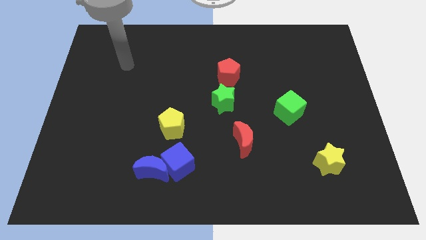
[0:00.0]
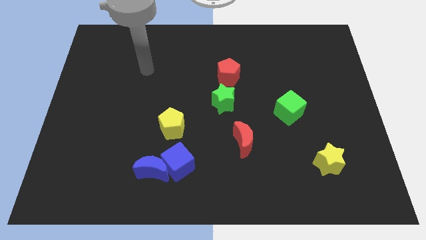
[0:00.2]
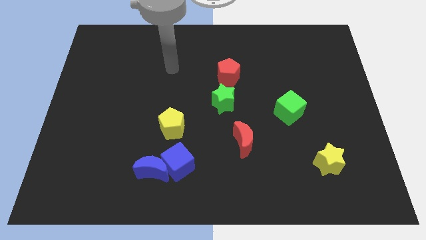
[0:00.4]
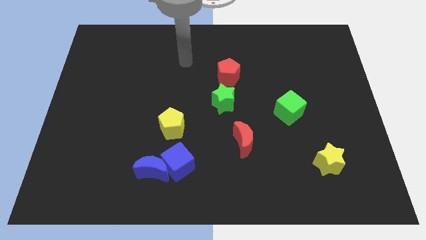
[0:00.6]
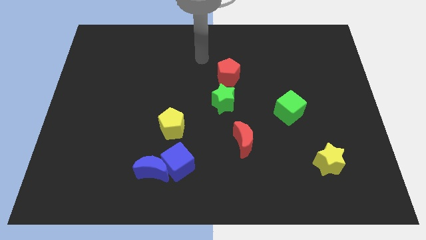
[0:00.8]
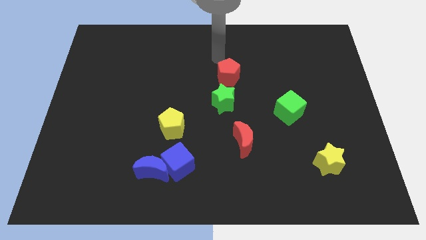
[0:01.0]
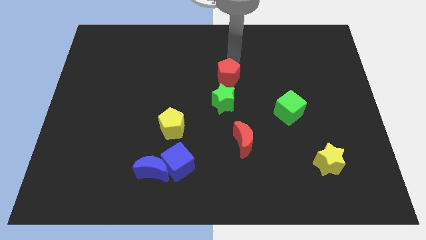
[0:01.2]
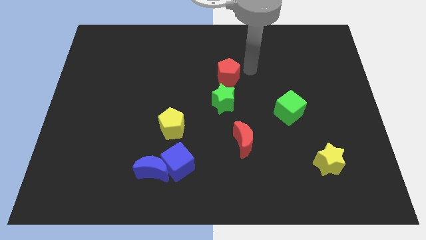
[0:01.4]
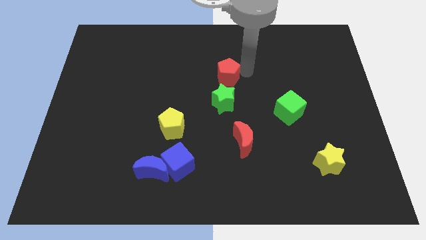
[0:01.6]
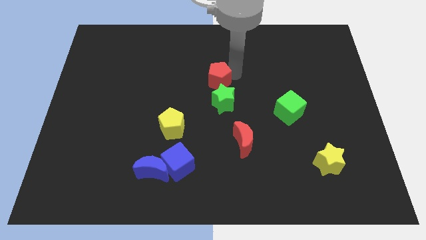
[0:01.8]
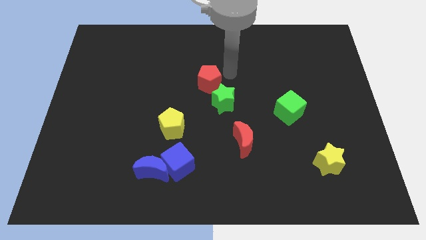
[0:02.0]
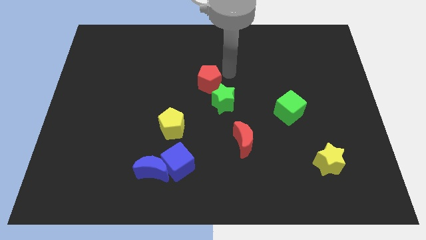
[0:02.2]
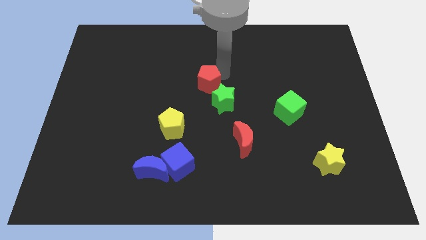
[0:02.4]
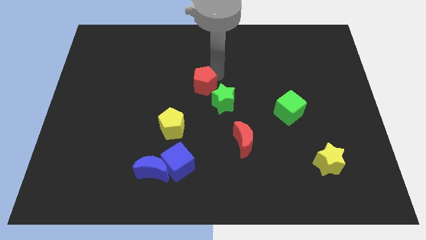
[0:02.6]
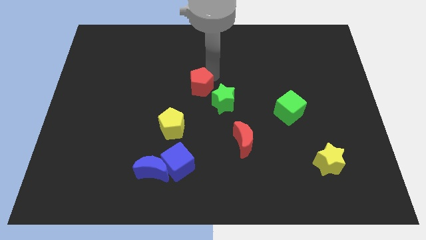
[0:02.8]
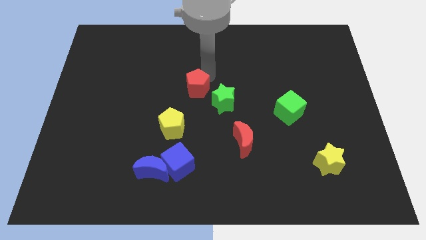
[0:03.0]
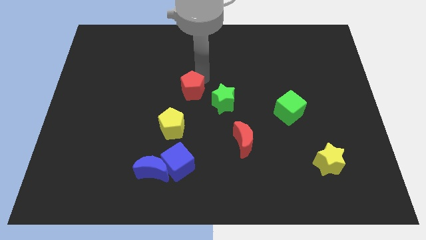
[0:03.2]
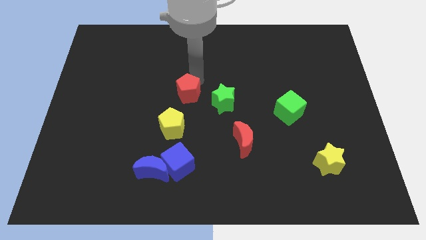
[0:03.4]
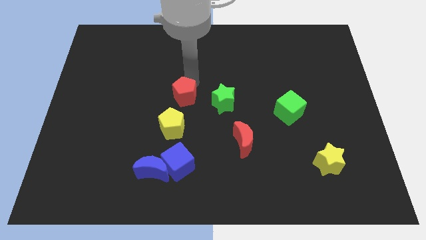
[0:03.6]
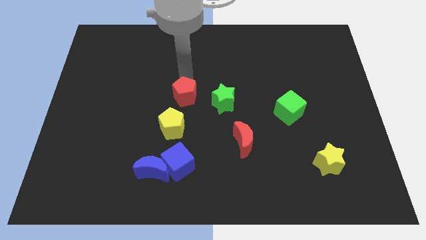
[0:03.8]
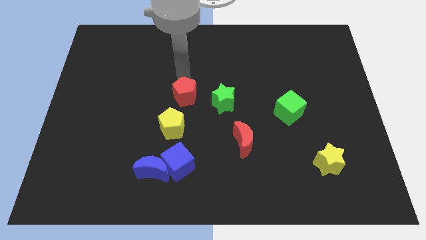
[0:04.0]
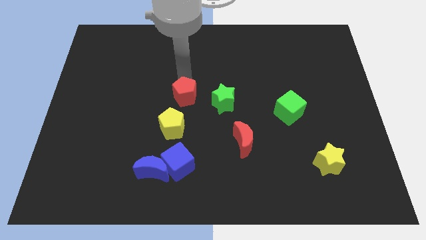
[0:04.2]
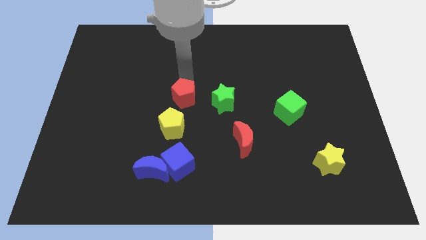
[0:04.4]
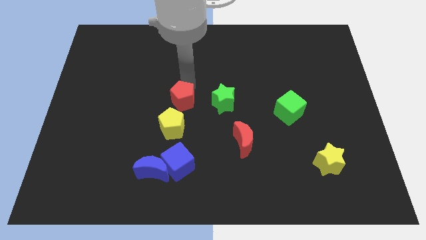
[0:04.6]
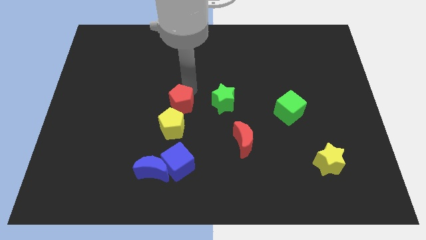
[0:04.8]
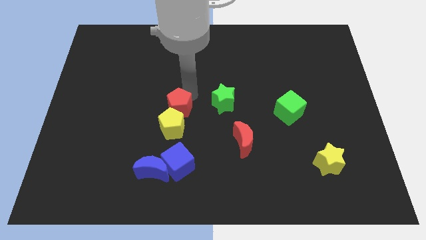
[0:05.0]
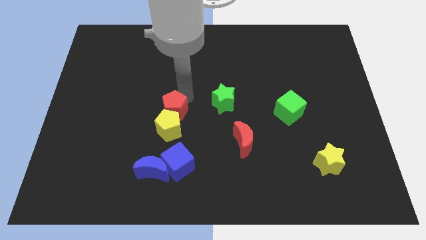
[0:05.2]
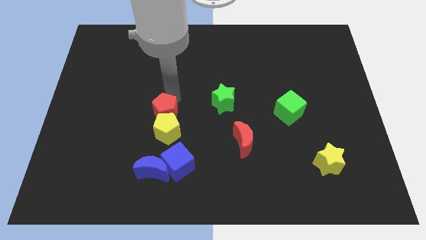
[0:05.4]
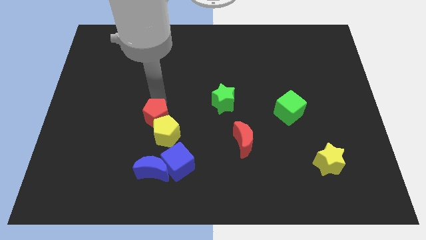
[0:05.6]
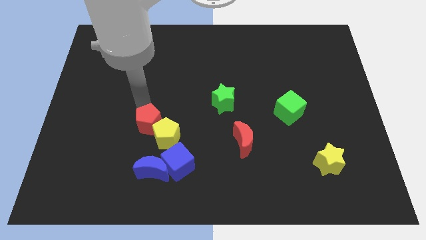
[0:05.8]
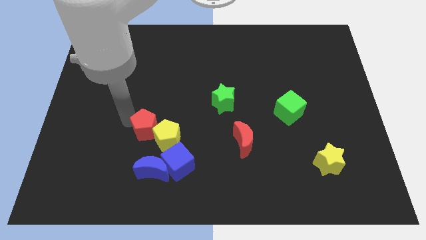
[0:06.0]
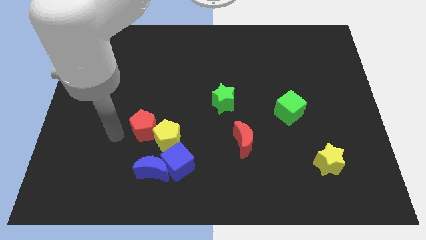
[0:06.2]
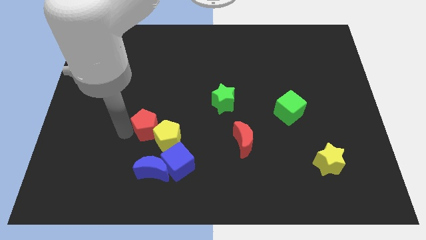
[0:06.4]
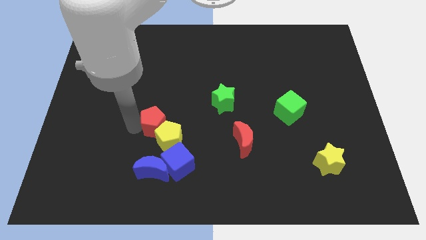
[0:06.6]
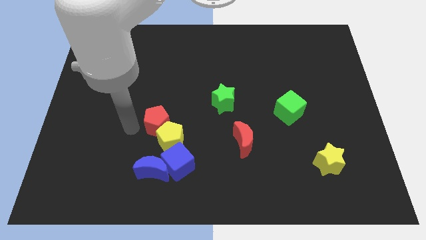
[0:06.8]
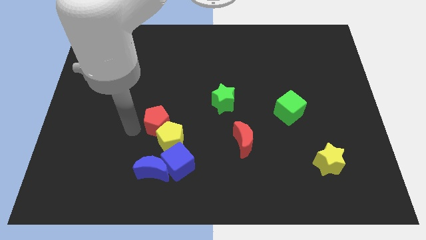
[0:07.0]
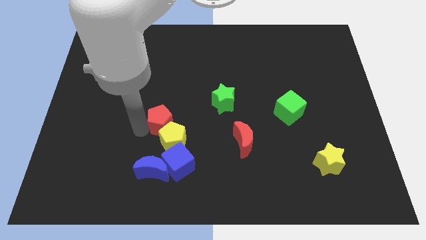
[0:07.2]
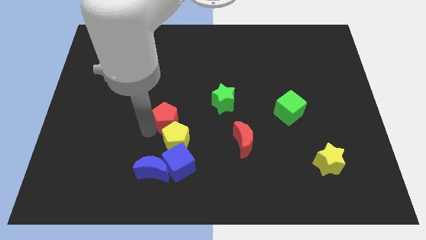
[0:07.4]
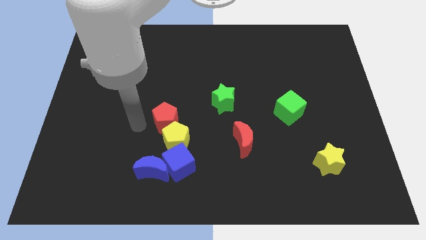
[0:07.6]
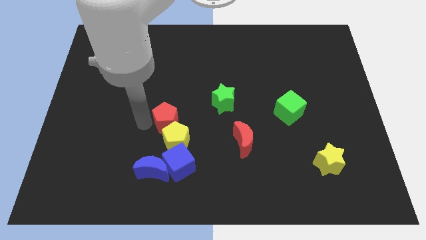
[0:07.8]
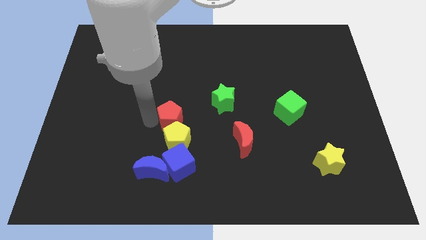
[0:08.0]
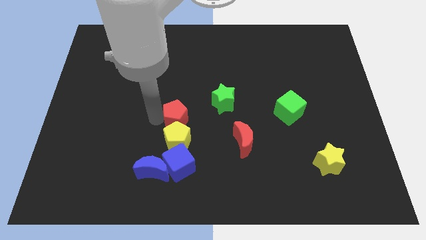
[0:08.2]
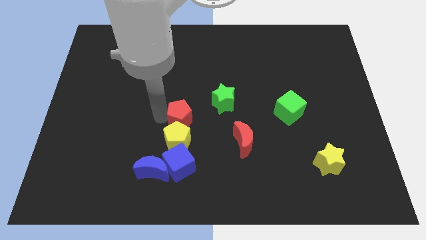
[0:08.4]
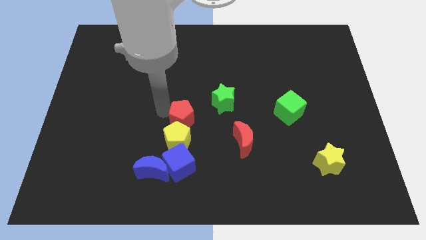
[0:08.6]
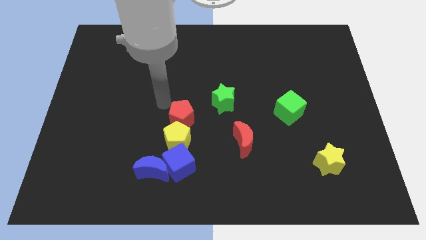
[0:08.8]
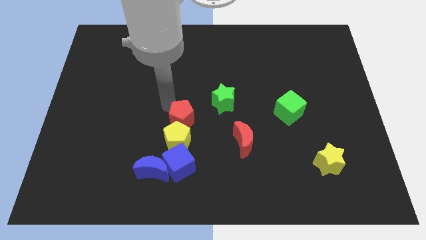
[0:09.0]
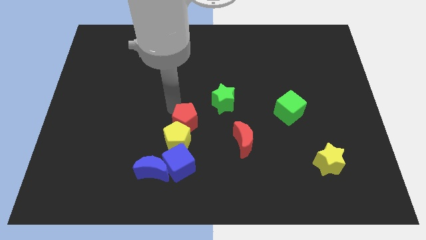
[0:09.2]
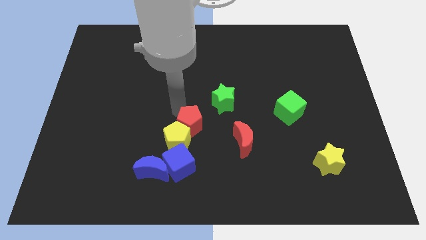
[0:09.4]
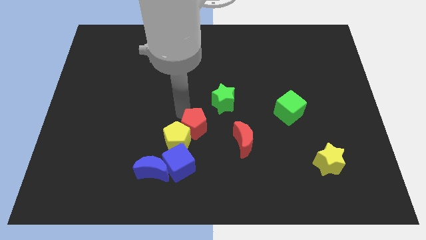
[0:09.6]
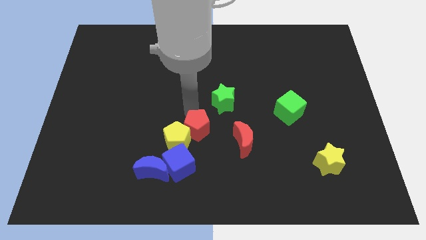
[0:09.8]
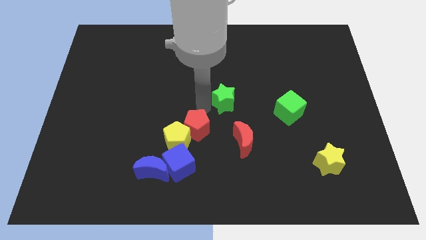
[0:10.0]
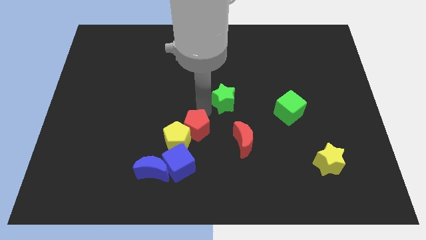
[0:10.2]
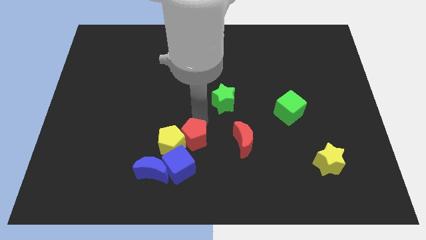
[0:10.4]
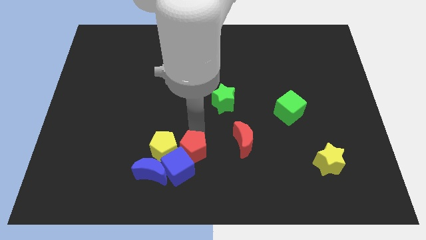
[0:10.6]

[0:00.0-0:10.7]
push the red pentagon to the blue cube

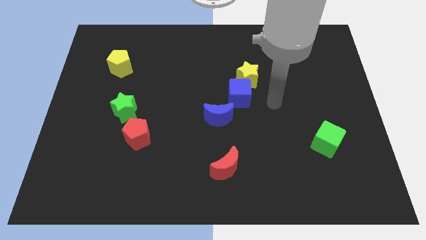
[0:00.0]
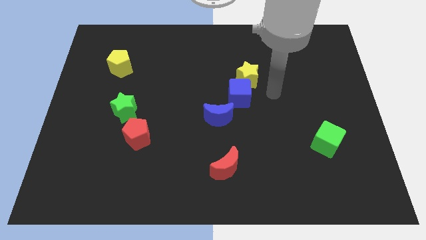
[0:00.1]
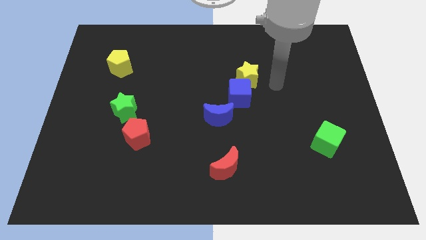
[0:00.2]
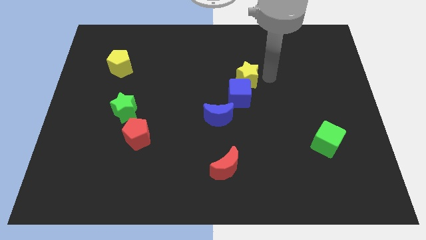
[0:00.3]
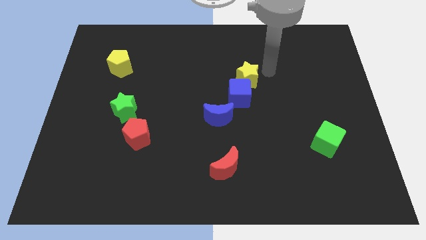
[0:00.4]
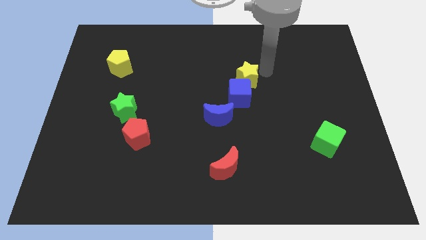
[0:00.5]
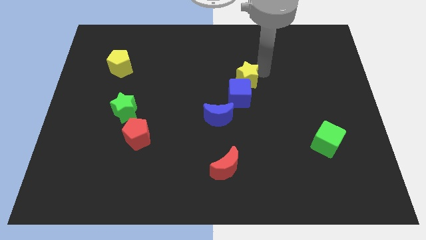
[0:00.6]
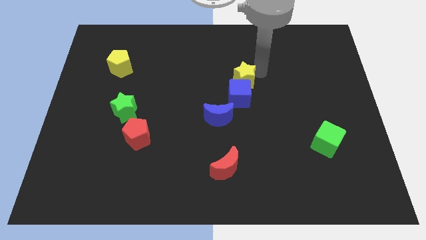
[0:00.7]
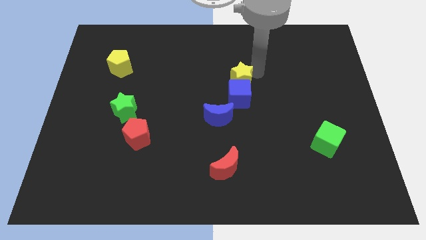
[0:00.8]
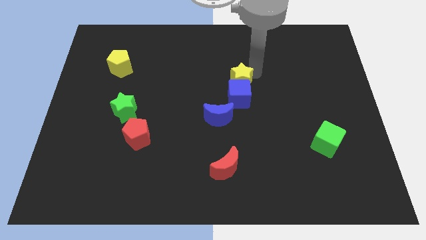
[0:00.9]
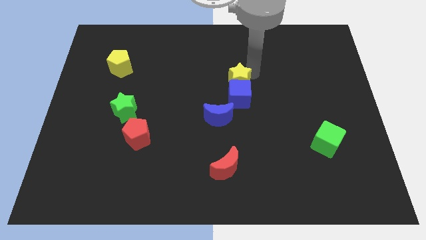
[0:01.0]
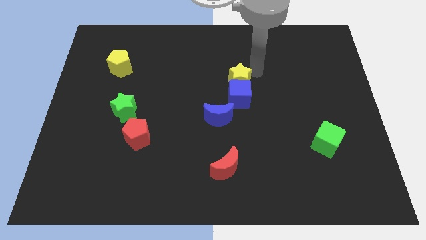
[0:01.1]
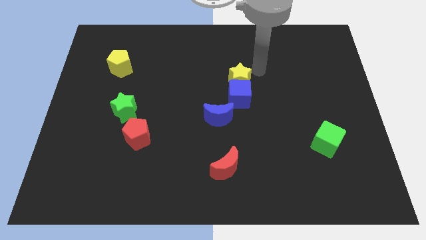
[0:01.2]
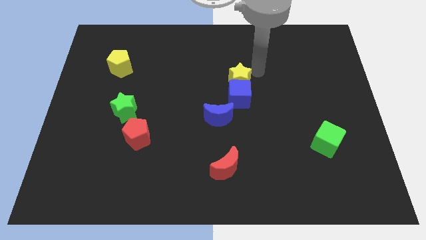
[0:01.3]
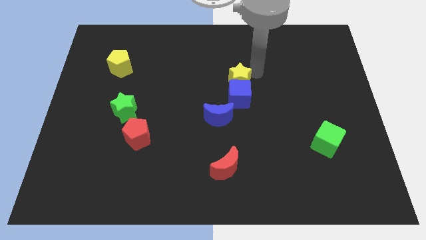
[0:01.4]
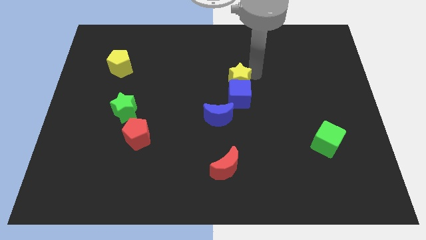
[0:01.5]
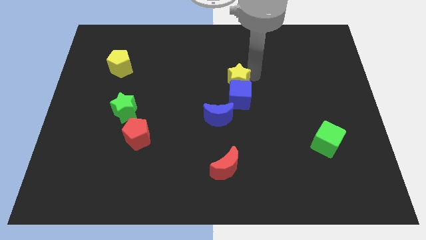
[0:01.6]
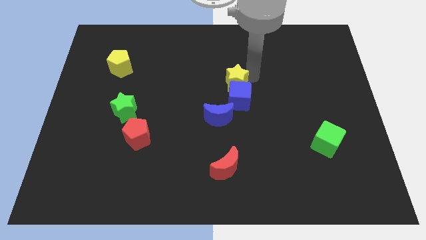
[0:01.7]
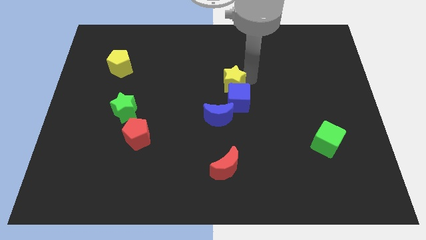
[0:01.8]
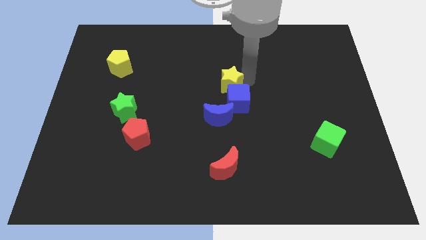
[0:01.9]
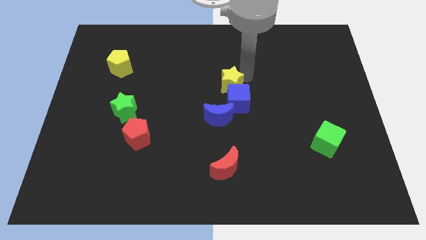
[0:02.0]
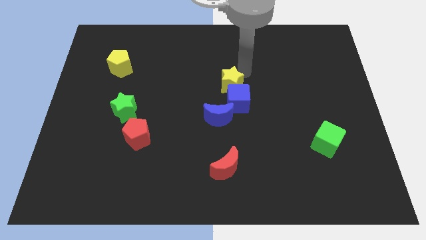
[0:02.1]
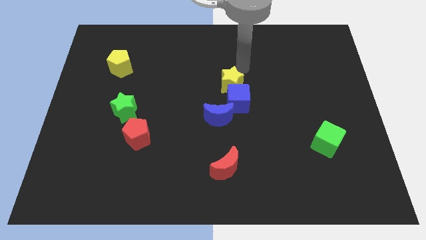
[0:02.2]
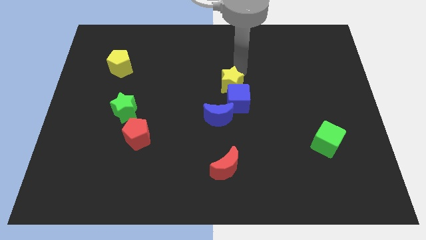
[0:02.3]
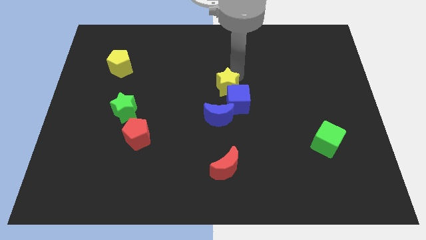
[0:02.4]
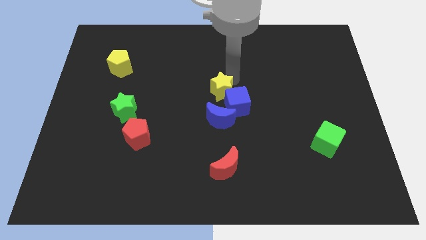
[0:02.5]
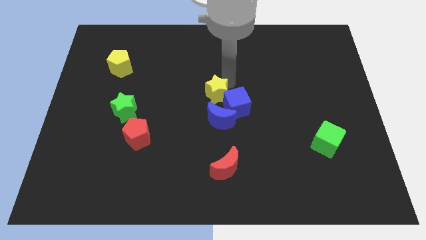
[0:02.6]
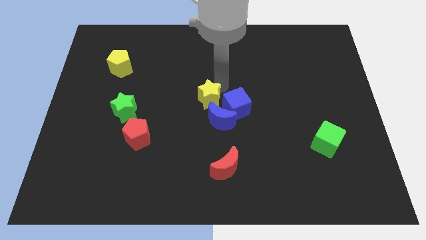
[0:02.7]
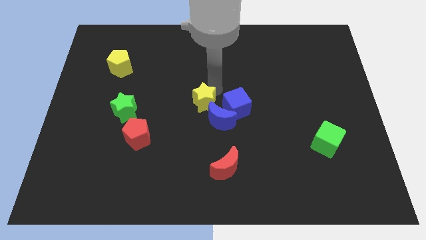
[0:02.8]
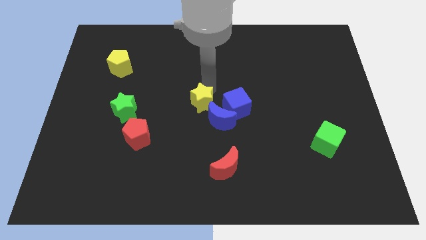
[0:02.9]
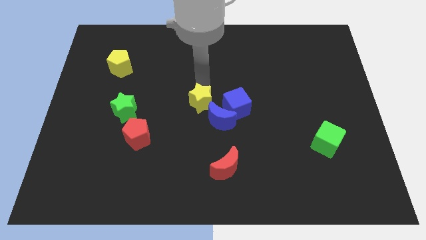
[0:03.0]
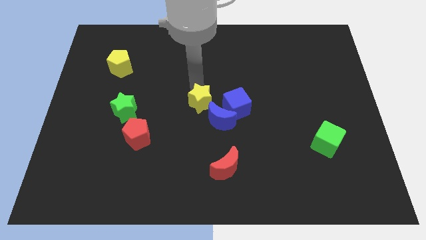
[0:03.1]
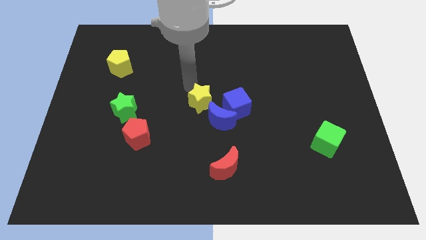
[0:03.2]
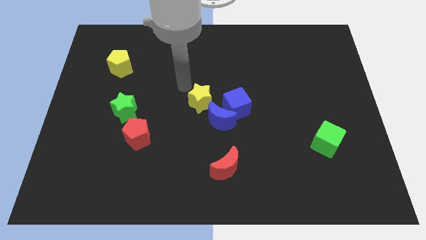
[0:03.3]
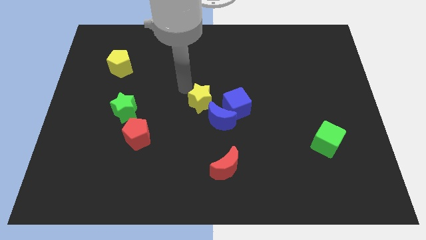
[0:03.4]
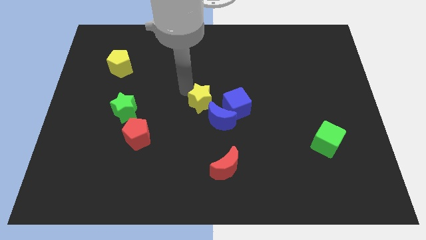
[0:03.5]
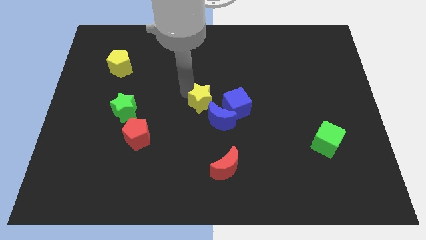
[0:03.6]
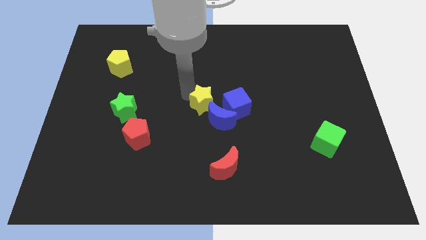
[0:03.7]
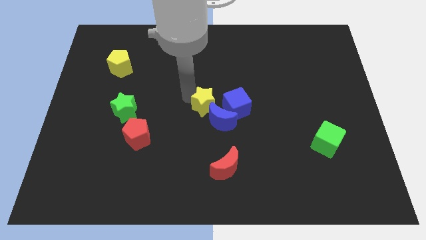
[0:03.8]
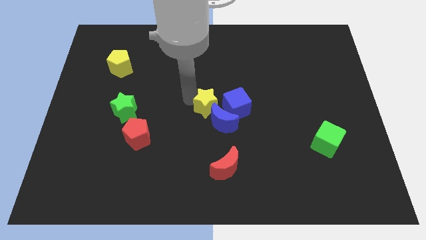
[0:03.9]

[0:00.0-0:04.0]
slide the yellow star next to the blue moon
